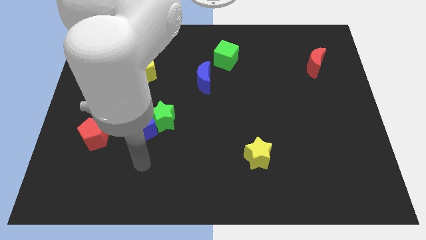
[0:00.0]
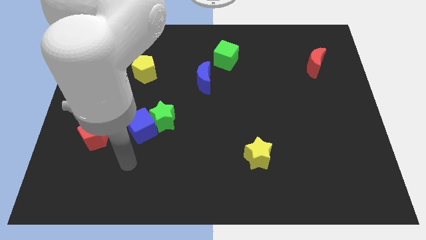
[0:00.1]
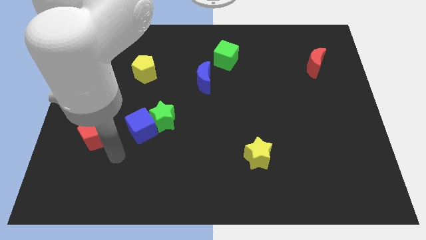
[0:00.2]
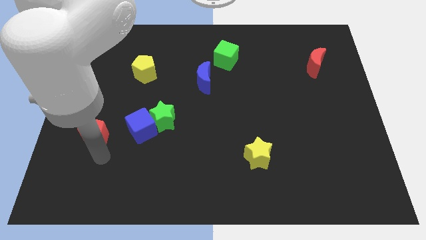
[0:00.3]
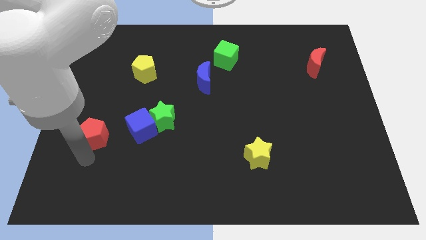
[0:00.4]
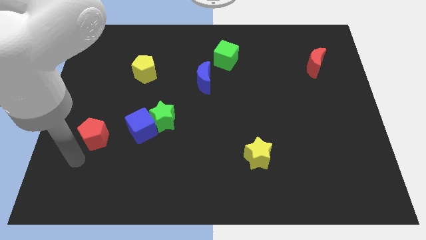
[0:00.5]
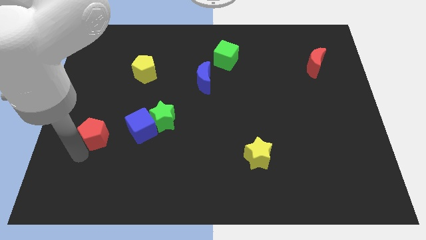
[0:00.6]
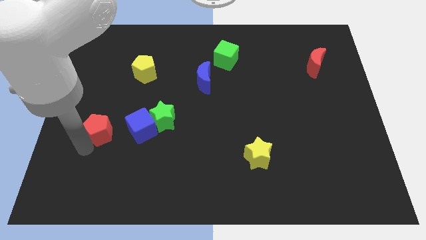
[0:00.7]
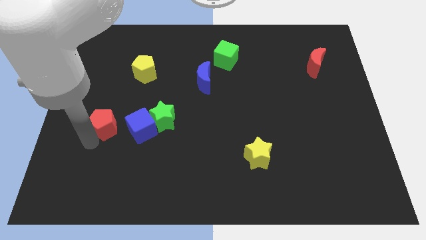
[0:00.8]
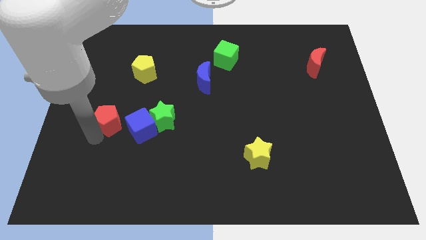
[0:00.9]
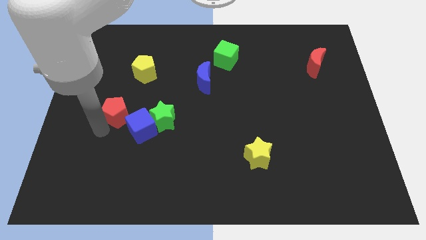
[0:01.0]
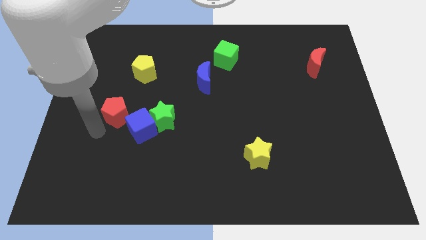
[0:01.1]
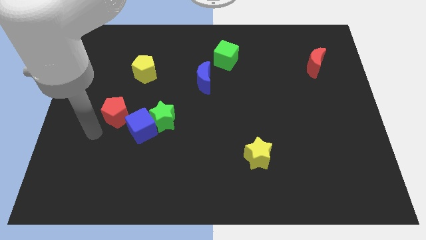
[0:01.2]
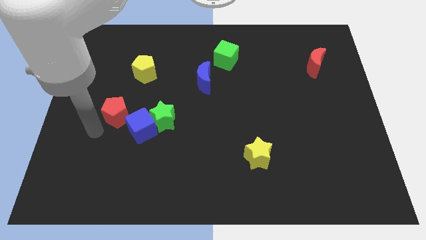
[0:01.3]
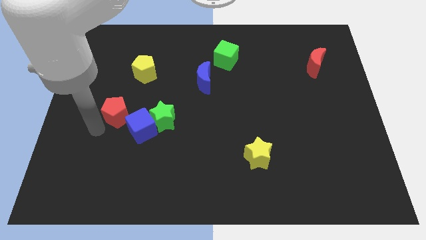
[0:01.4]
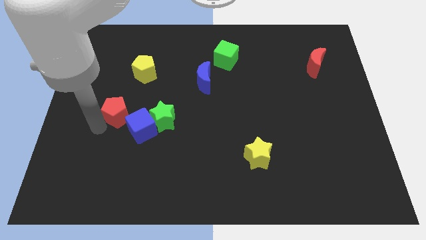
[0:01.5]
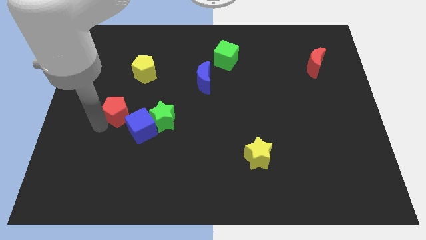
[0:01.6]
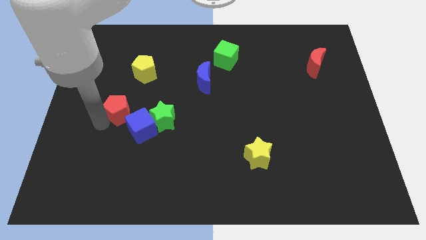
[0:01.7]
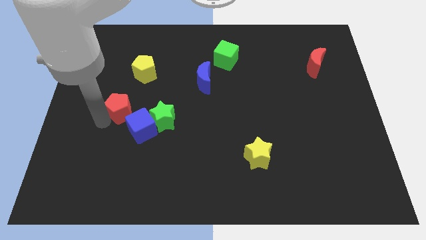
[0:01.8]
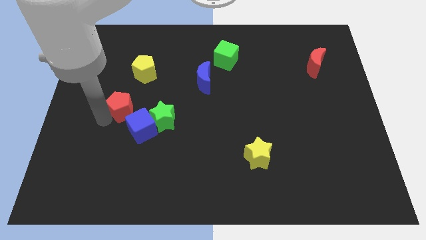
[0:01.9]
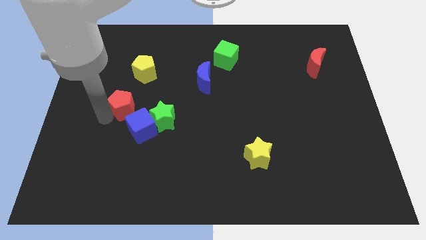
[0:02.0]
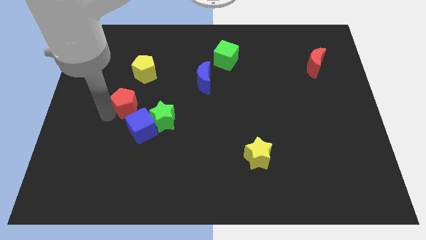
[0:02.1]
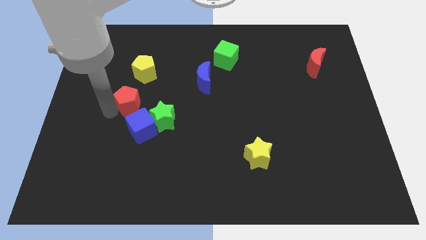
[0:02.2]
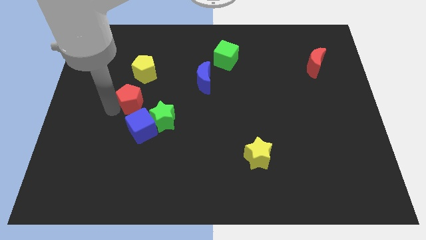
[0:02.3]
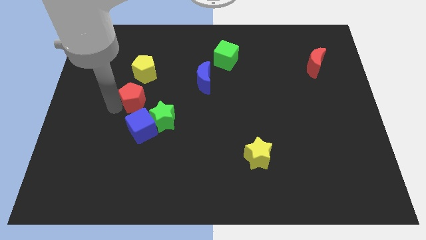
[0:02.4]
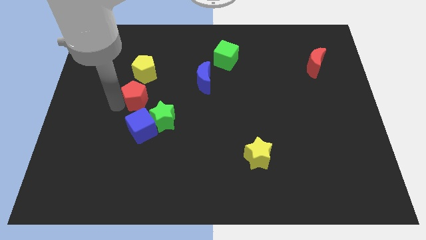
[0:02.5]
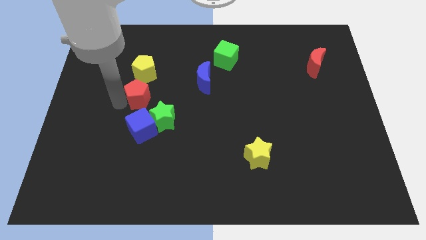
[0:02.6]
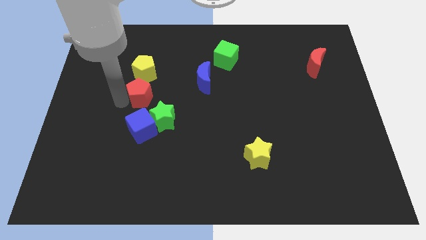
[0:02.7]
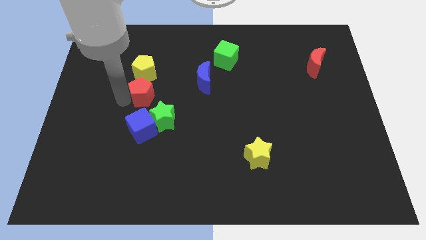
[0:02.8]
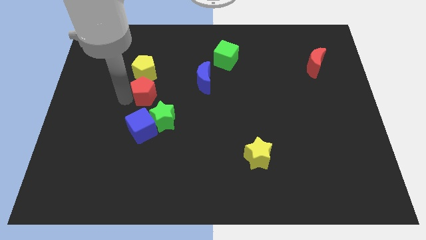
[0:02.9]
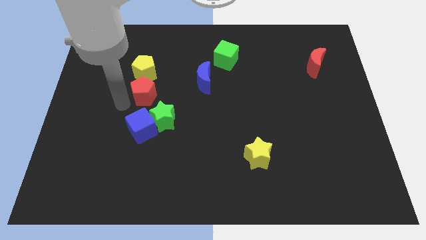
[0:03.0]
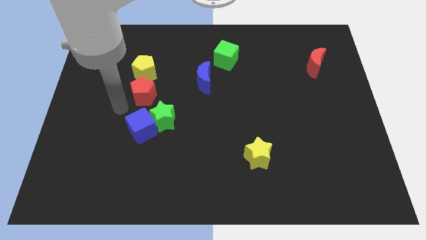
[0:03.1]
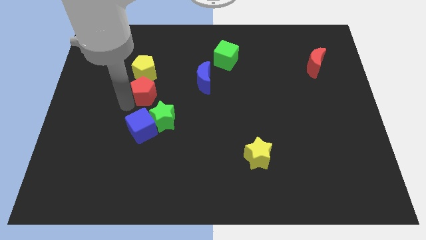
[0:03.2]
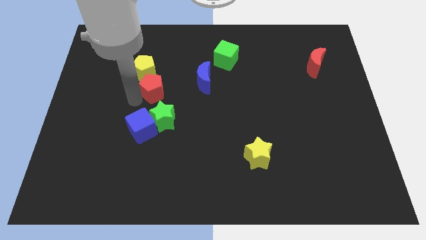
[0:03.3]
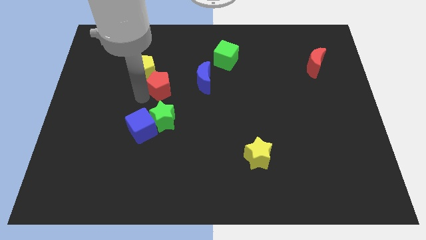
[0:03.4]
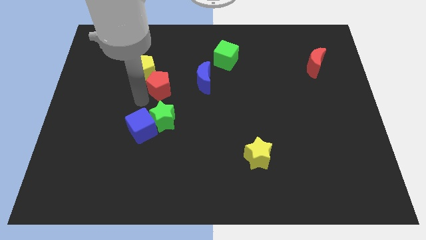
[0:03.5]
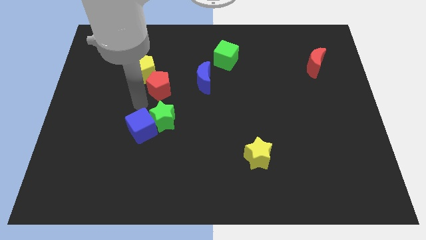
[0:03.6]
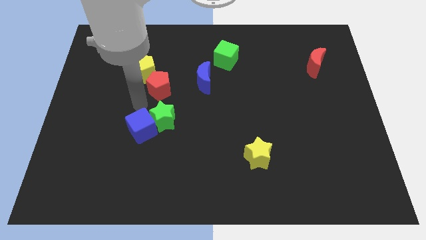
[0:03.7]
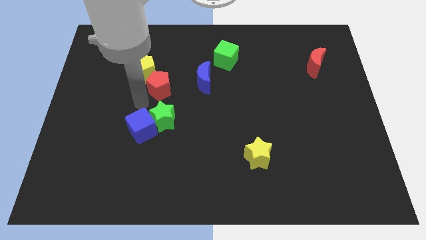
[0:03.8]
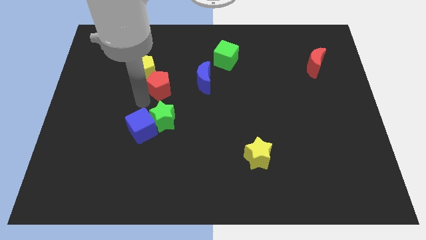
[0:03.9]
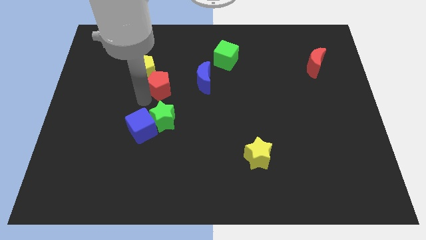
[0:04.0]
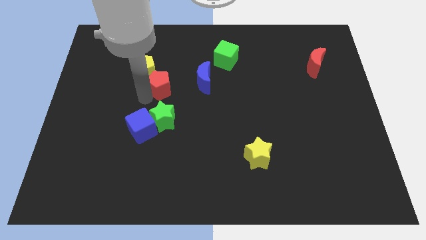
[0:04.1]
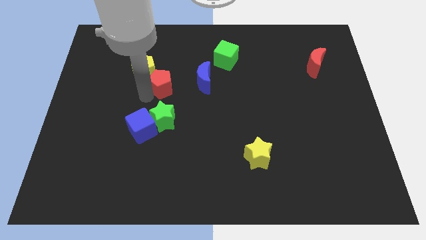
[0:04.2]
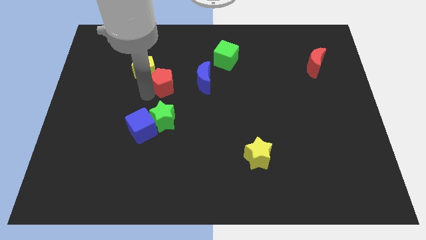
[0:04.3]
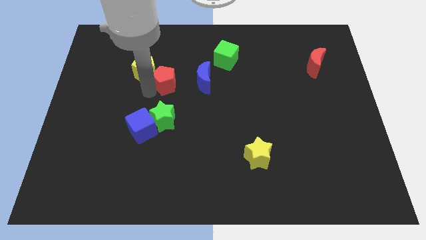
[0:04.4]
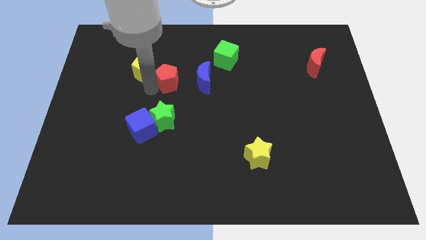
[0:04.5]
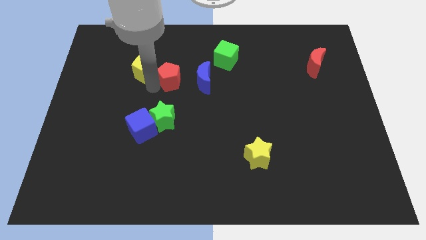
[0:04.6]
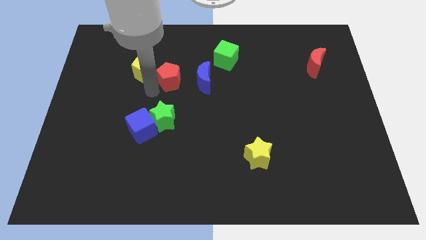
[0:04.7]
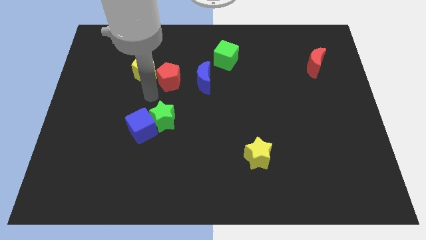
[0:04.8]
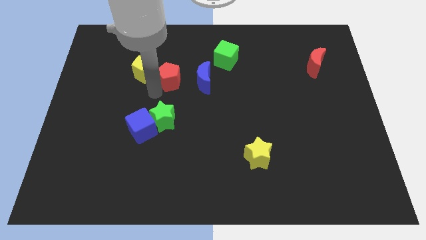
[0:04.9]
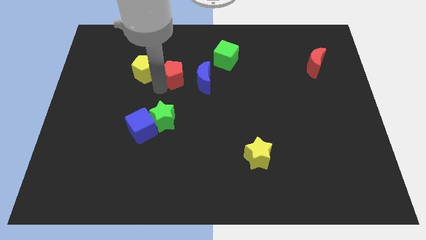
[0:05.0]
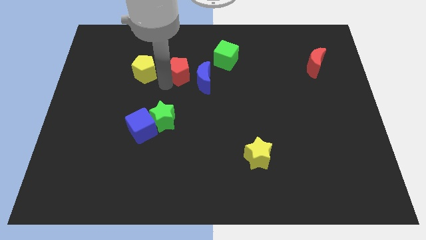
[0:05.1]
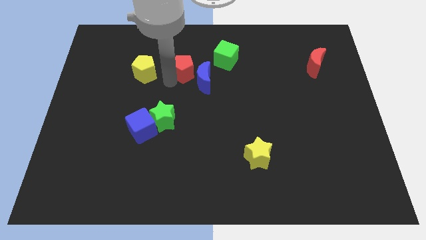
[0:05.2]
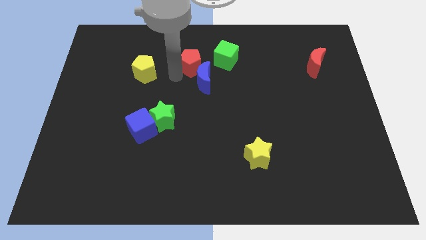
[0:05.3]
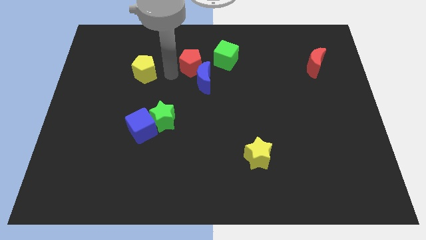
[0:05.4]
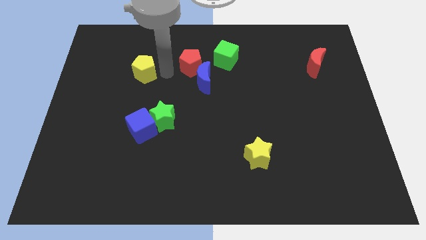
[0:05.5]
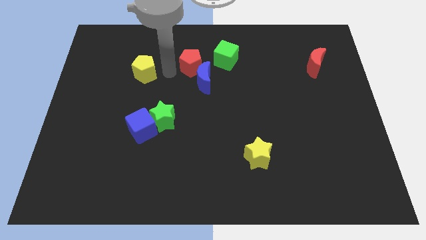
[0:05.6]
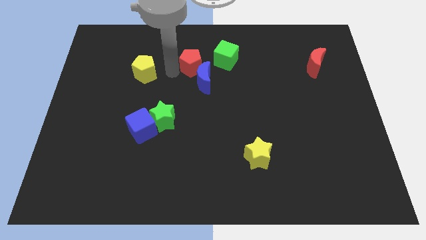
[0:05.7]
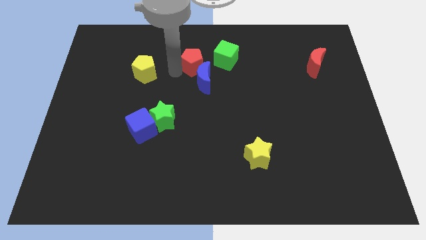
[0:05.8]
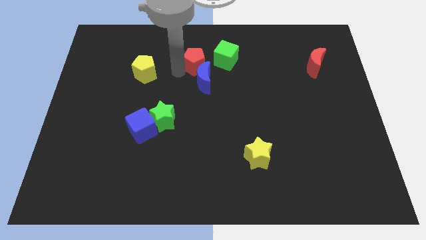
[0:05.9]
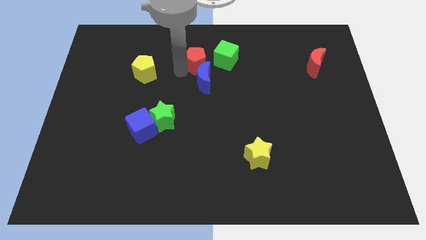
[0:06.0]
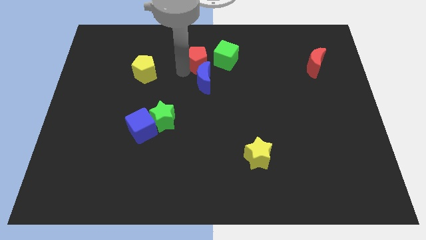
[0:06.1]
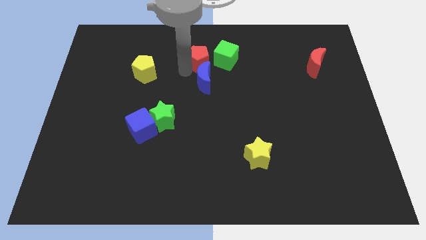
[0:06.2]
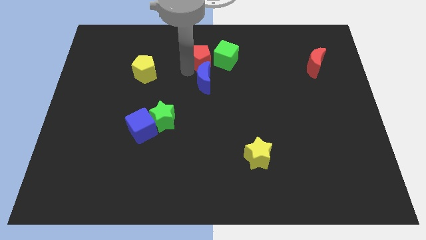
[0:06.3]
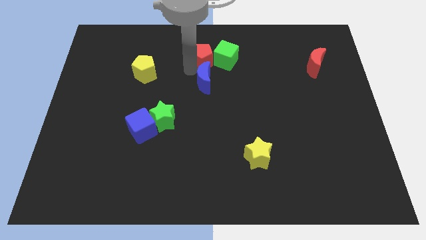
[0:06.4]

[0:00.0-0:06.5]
move the red pentagon next to the green cube

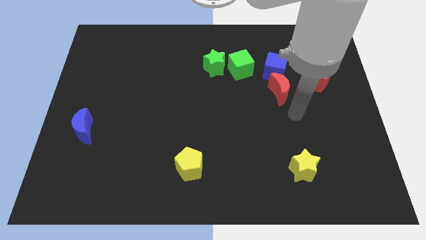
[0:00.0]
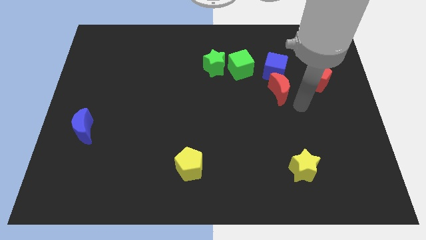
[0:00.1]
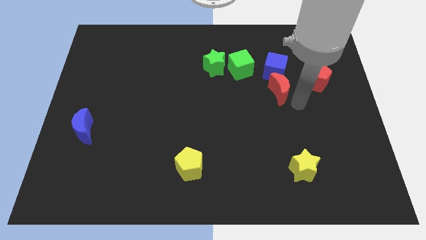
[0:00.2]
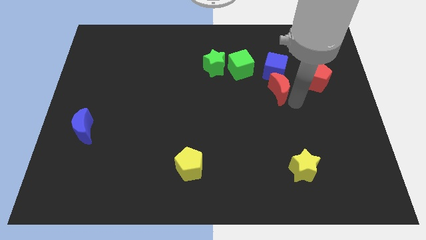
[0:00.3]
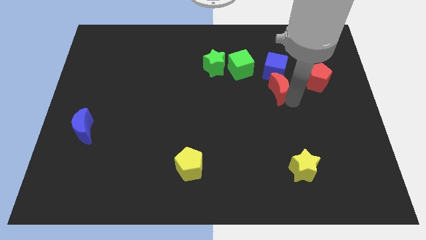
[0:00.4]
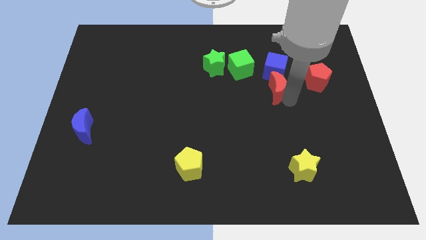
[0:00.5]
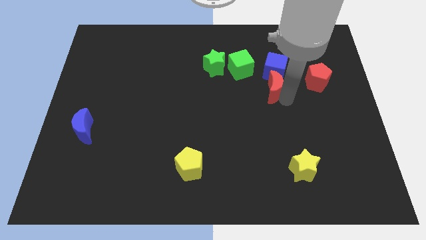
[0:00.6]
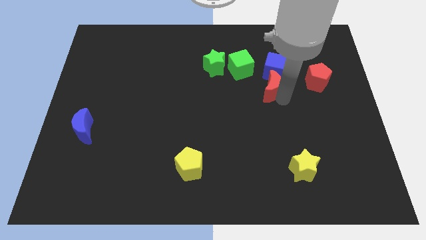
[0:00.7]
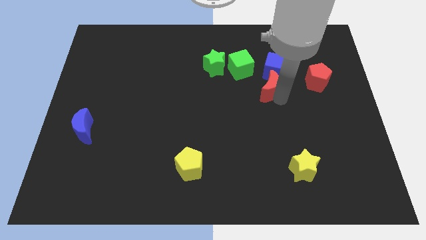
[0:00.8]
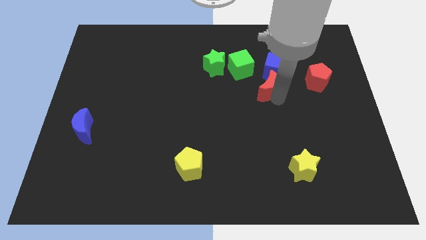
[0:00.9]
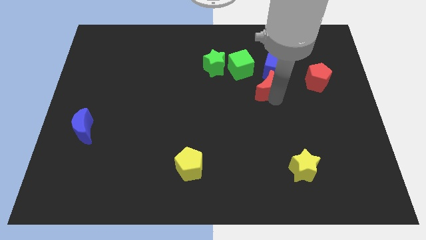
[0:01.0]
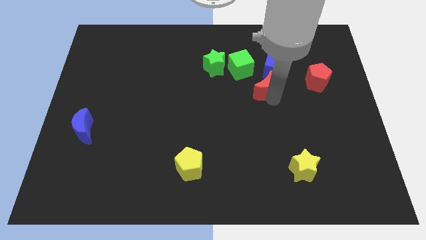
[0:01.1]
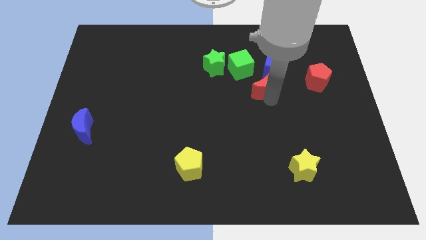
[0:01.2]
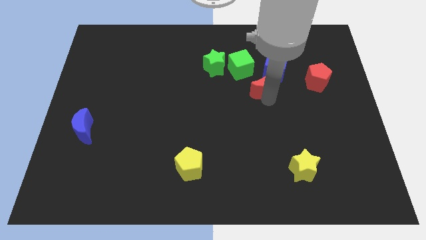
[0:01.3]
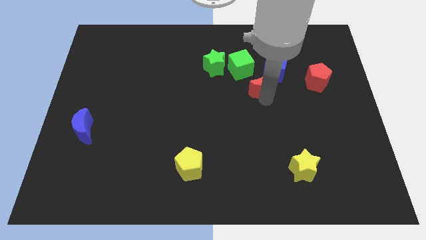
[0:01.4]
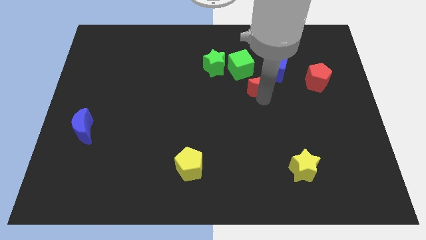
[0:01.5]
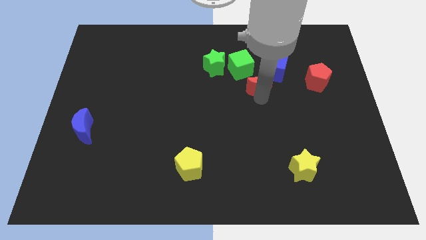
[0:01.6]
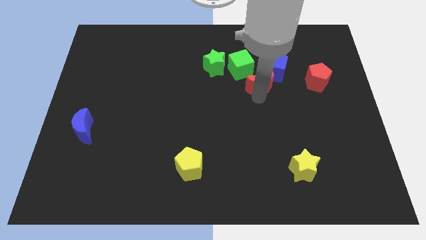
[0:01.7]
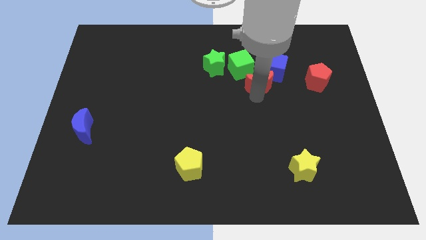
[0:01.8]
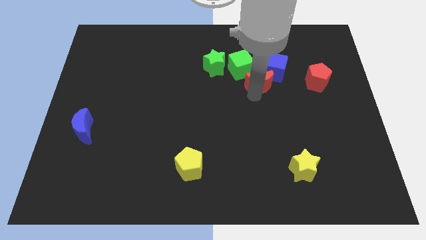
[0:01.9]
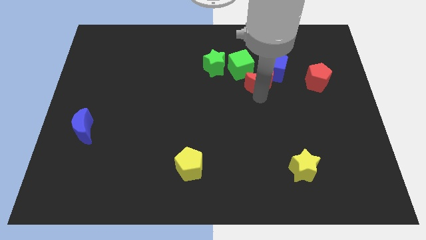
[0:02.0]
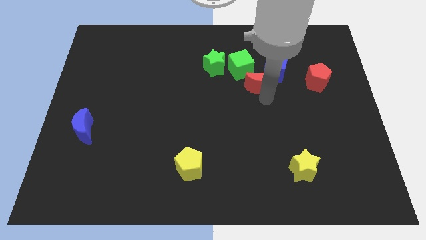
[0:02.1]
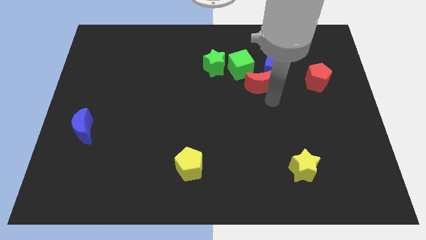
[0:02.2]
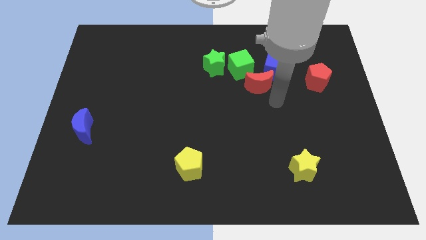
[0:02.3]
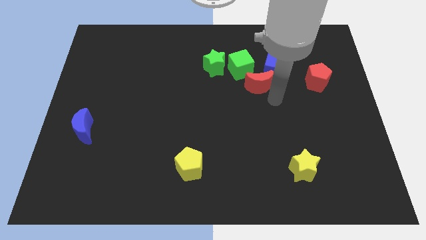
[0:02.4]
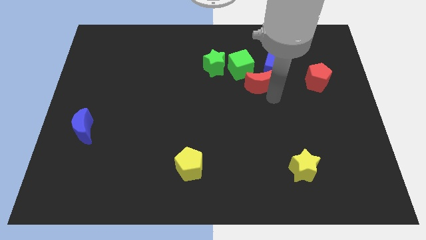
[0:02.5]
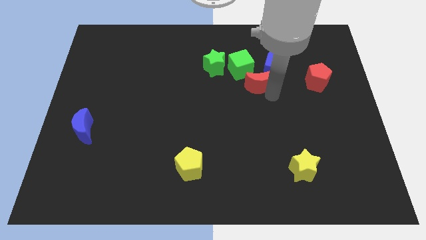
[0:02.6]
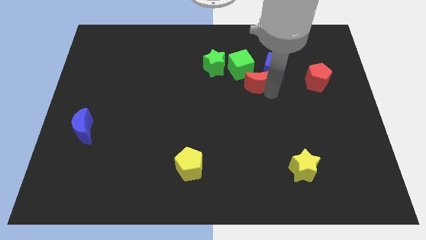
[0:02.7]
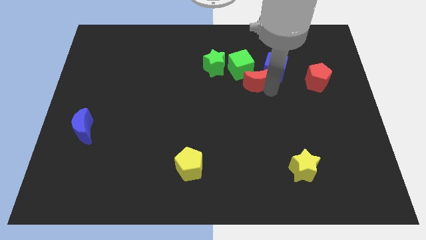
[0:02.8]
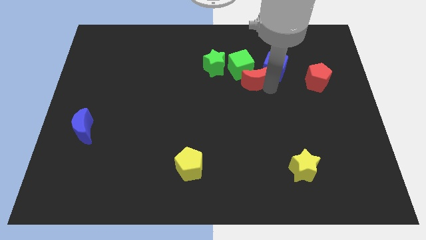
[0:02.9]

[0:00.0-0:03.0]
put the red moon towards the green cube
